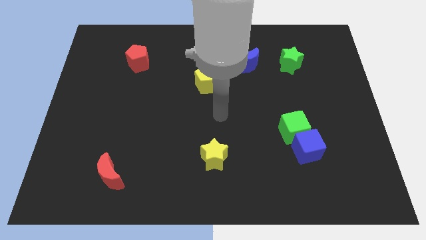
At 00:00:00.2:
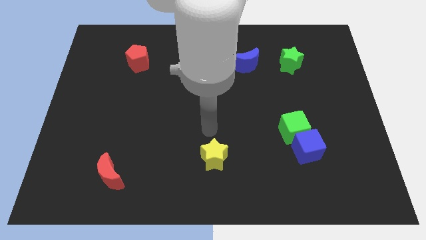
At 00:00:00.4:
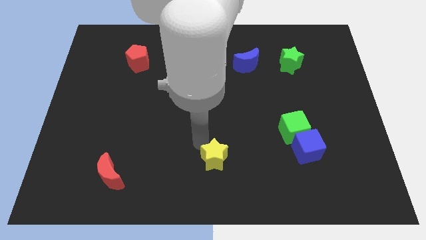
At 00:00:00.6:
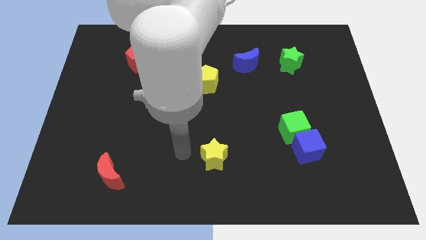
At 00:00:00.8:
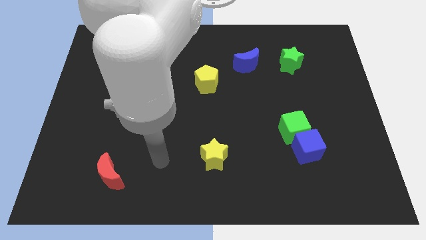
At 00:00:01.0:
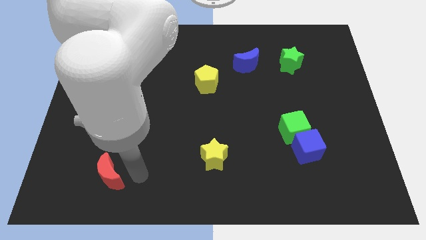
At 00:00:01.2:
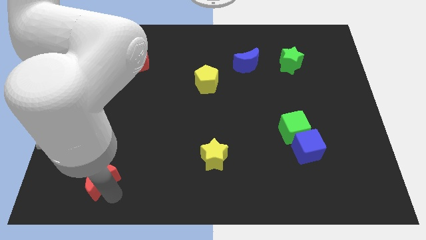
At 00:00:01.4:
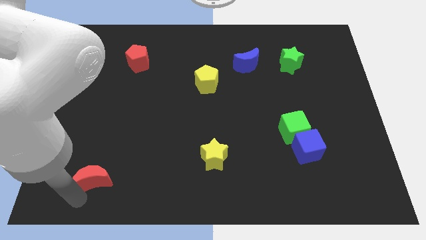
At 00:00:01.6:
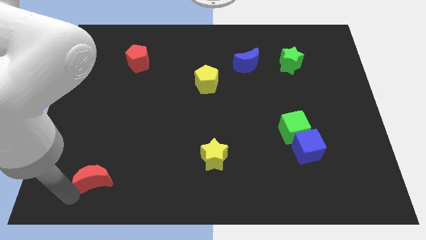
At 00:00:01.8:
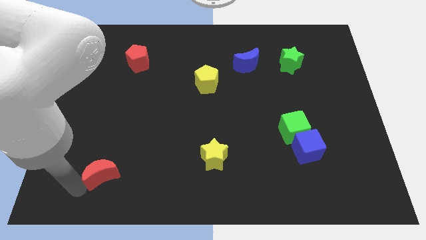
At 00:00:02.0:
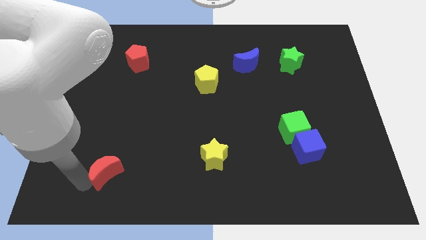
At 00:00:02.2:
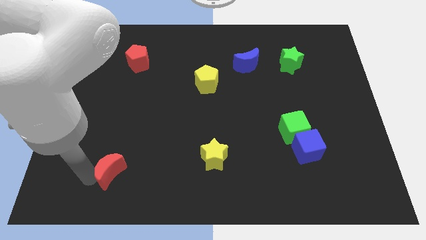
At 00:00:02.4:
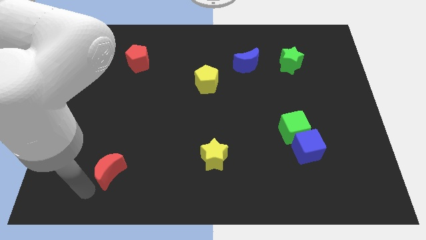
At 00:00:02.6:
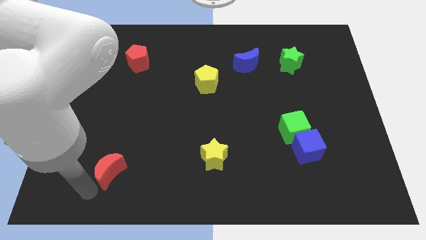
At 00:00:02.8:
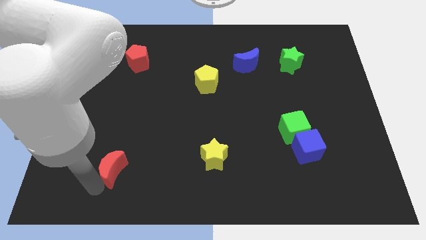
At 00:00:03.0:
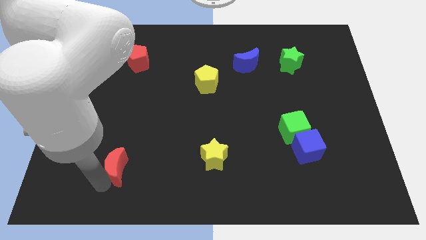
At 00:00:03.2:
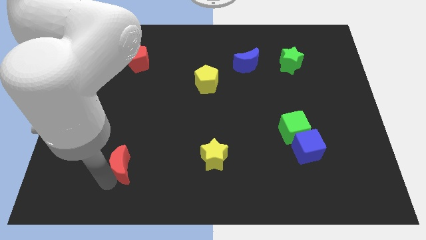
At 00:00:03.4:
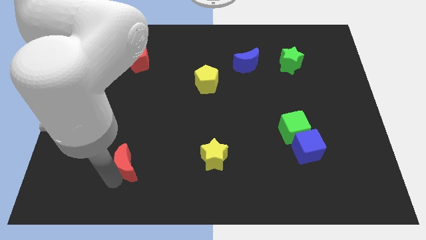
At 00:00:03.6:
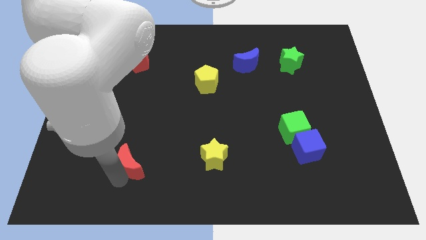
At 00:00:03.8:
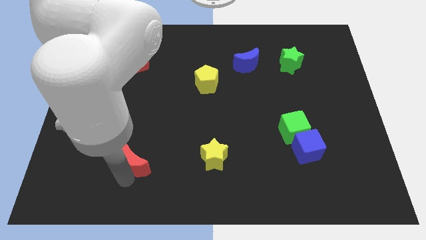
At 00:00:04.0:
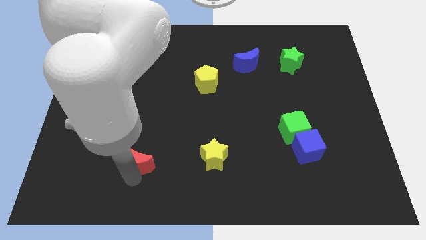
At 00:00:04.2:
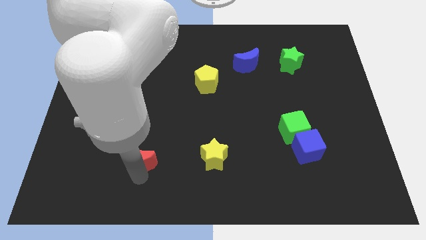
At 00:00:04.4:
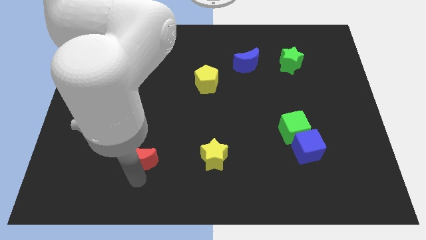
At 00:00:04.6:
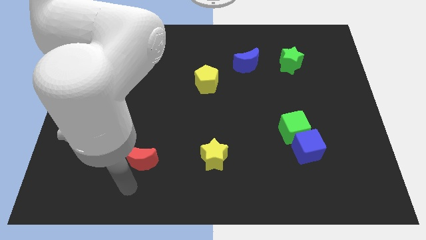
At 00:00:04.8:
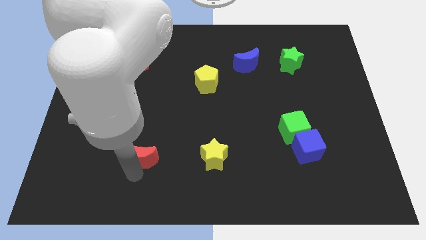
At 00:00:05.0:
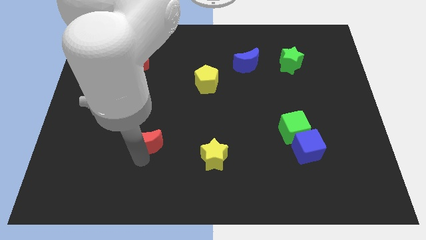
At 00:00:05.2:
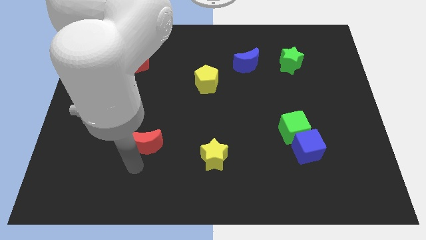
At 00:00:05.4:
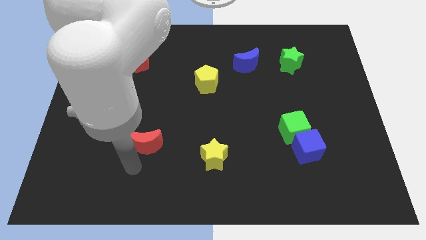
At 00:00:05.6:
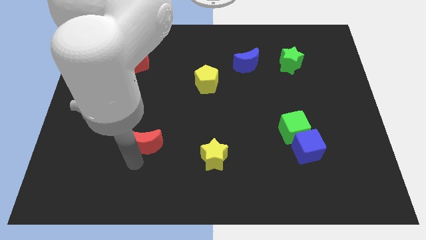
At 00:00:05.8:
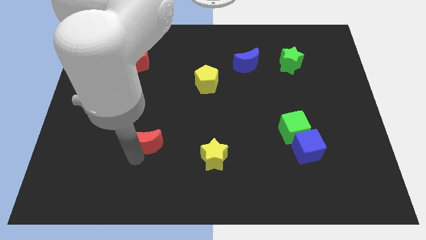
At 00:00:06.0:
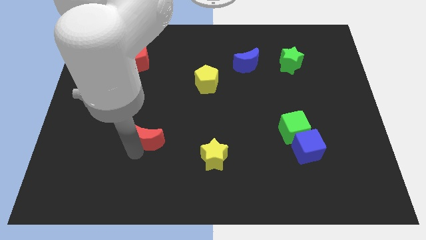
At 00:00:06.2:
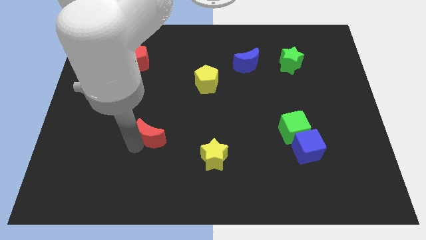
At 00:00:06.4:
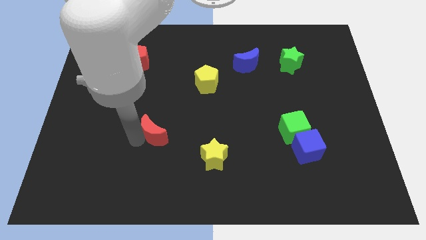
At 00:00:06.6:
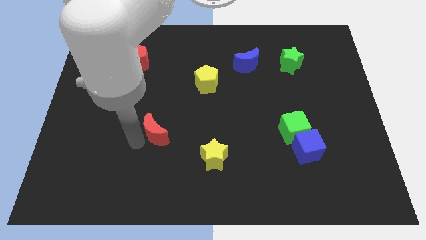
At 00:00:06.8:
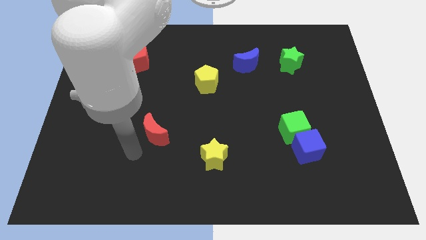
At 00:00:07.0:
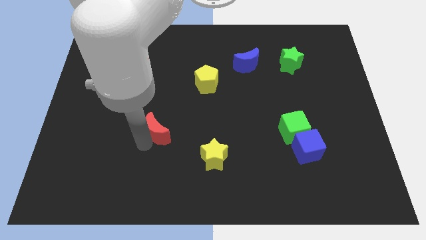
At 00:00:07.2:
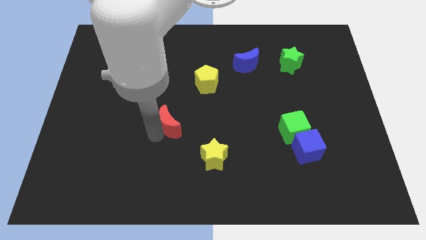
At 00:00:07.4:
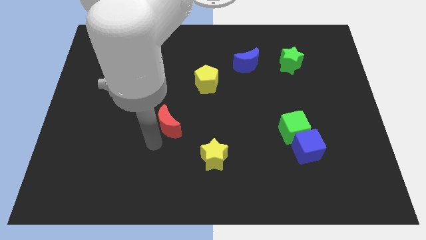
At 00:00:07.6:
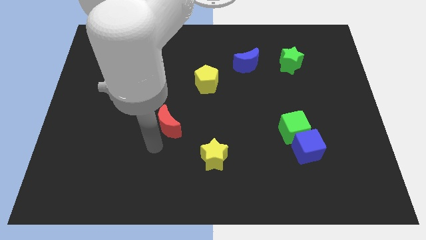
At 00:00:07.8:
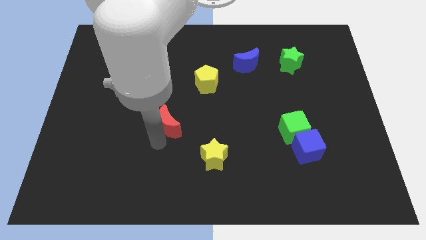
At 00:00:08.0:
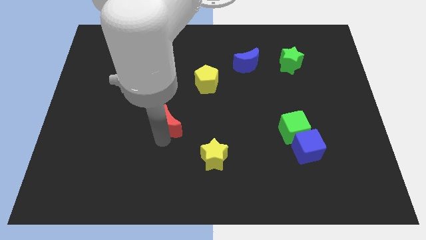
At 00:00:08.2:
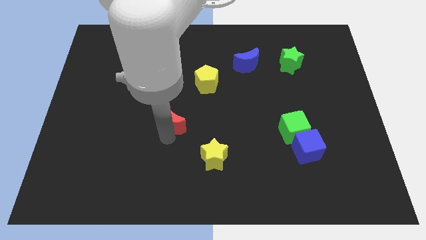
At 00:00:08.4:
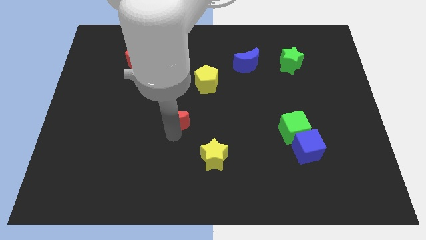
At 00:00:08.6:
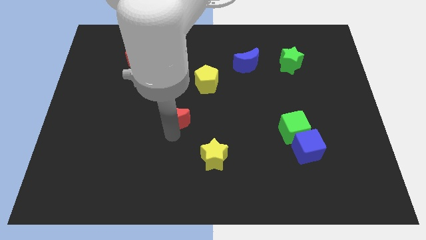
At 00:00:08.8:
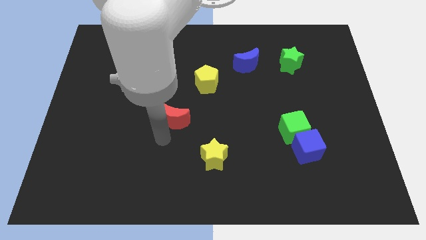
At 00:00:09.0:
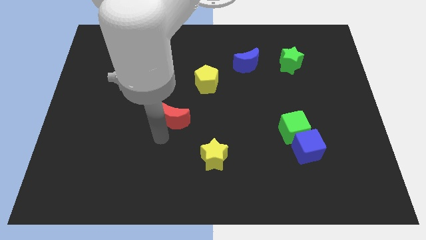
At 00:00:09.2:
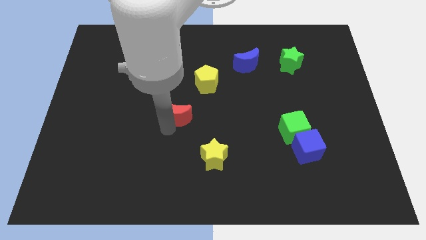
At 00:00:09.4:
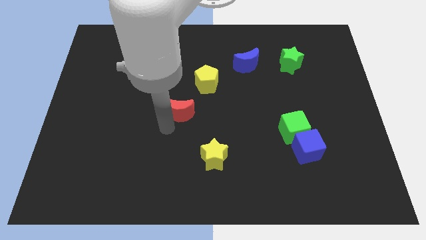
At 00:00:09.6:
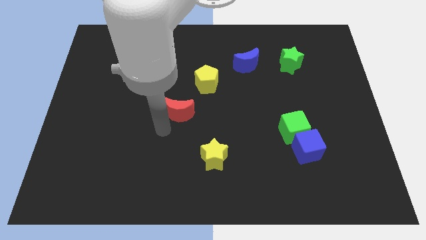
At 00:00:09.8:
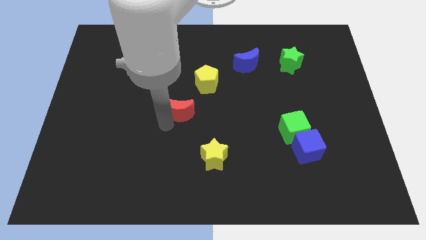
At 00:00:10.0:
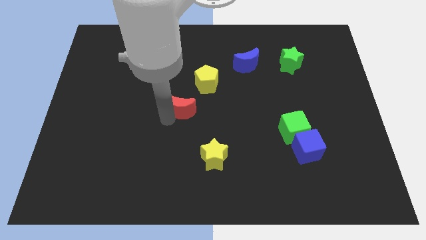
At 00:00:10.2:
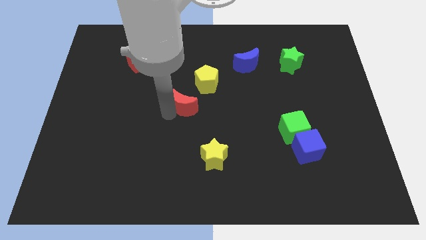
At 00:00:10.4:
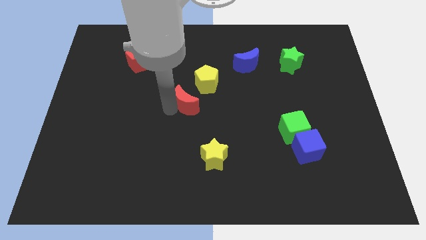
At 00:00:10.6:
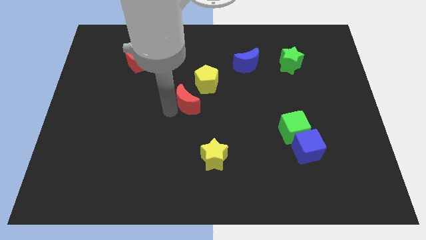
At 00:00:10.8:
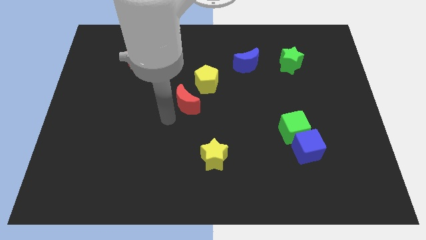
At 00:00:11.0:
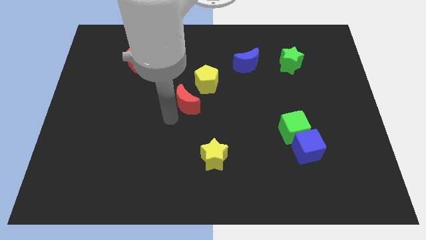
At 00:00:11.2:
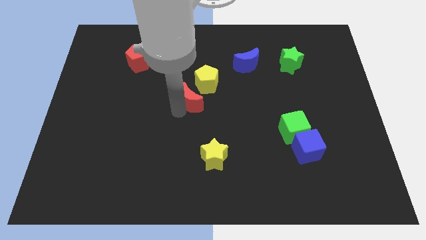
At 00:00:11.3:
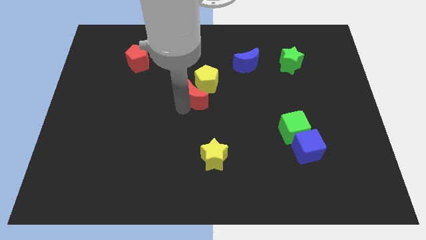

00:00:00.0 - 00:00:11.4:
put the red moon next to the yellow pentagon

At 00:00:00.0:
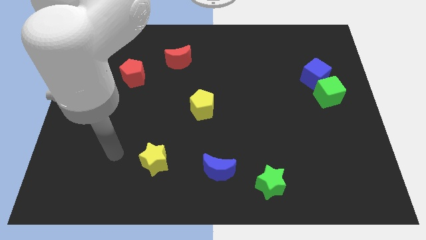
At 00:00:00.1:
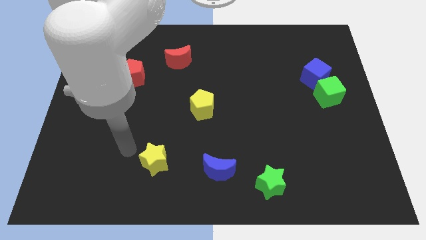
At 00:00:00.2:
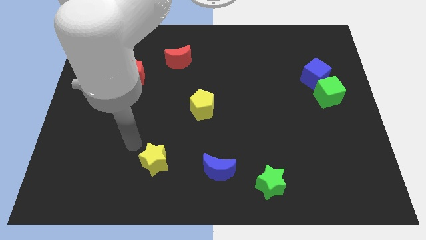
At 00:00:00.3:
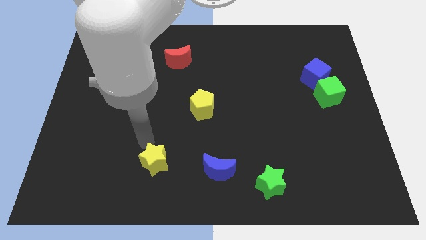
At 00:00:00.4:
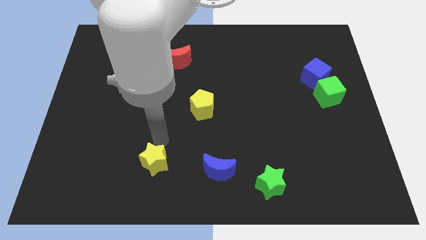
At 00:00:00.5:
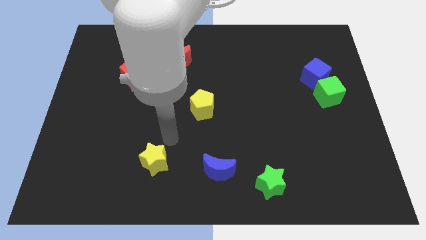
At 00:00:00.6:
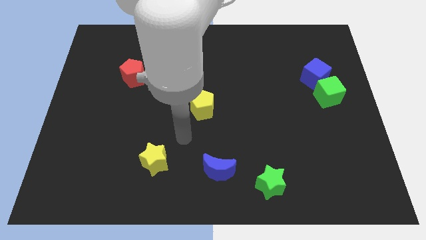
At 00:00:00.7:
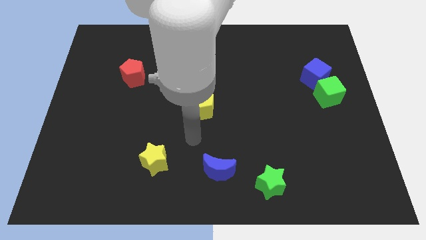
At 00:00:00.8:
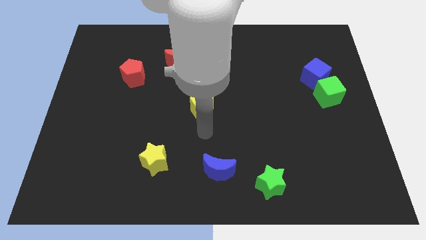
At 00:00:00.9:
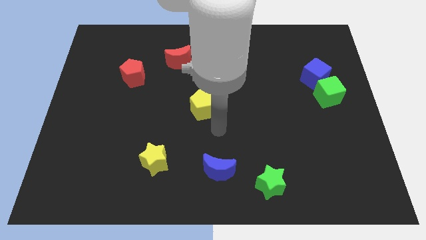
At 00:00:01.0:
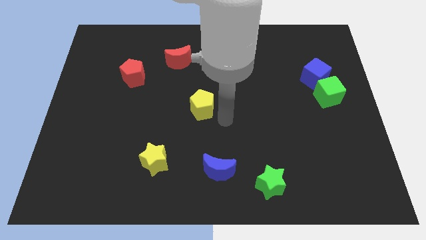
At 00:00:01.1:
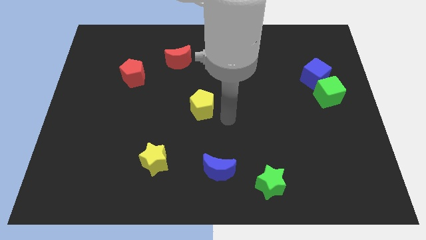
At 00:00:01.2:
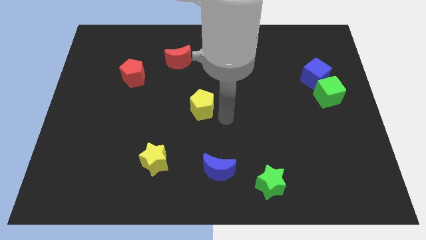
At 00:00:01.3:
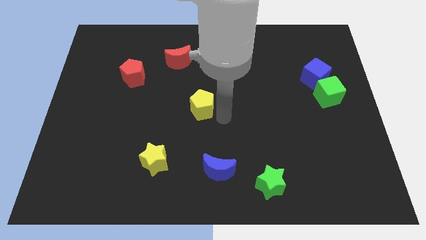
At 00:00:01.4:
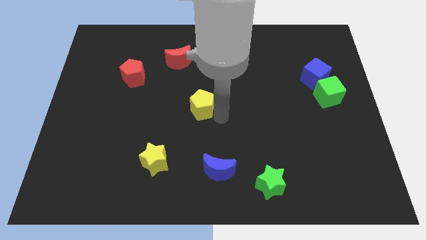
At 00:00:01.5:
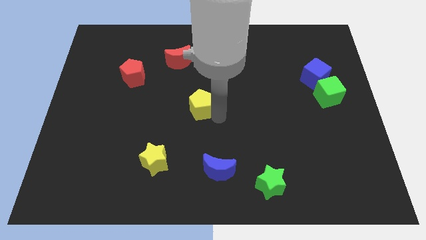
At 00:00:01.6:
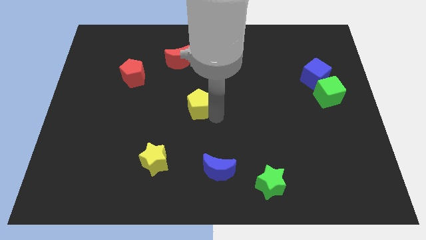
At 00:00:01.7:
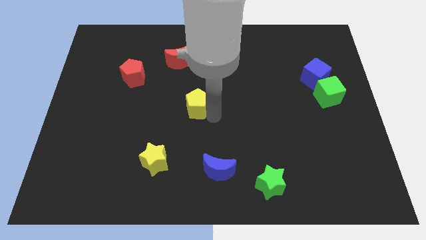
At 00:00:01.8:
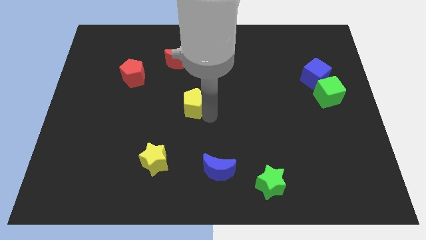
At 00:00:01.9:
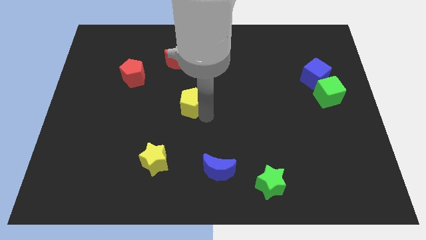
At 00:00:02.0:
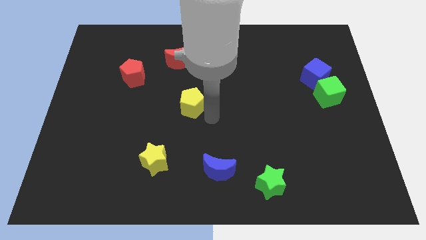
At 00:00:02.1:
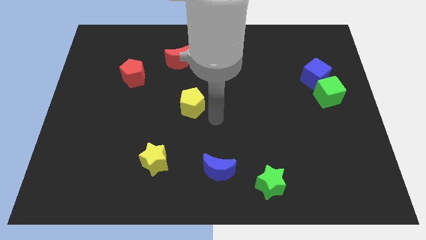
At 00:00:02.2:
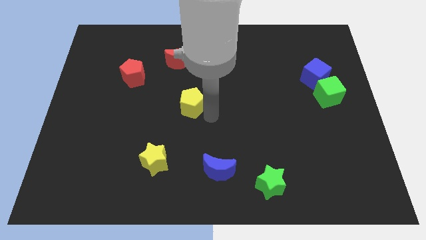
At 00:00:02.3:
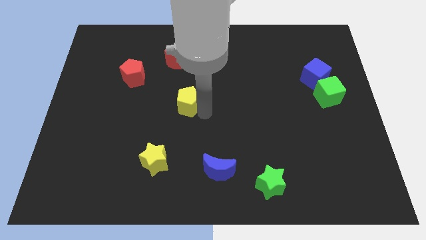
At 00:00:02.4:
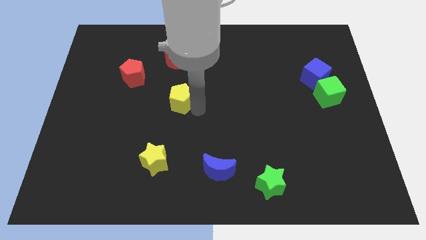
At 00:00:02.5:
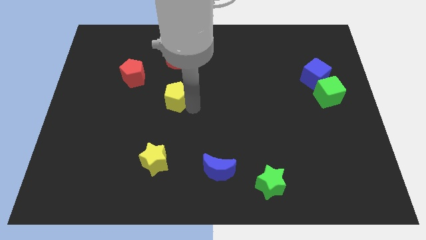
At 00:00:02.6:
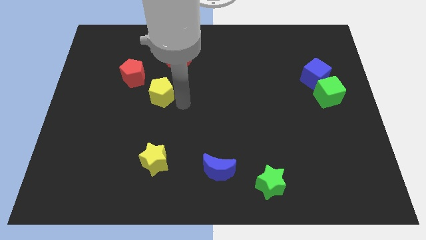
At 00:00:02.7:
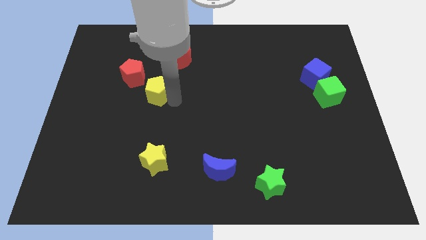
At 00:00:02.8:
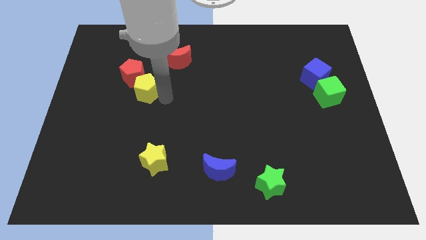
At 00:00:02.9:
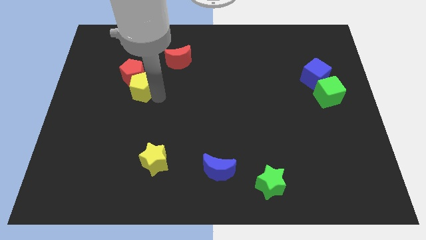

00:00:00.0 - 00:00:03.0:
slide the yellow pentagon towards the red pentagon
